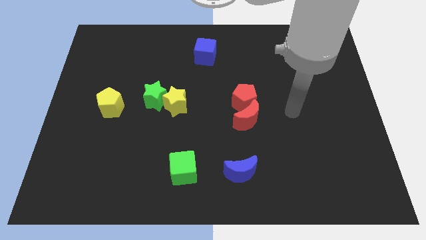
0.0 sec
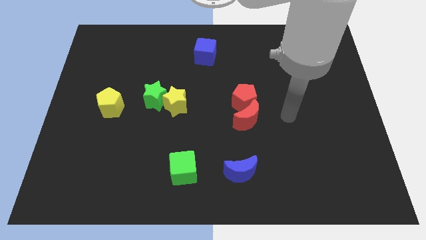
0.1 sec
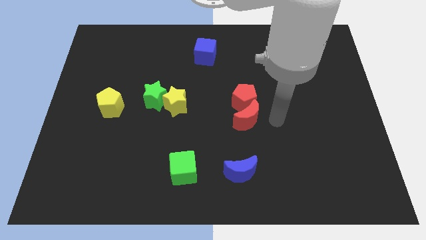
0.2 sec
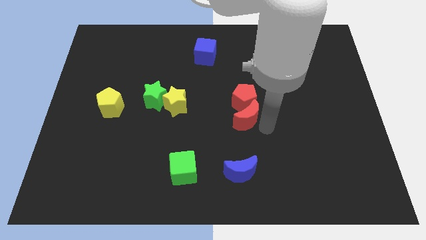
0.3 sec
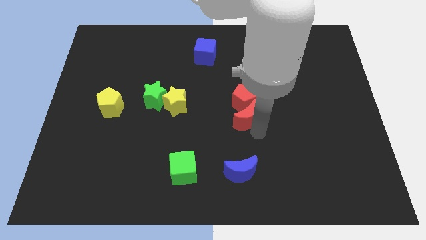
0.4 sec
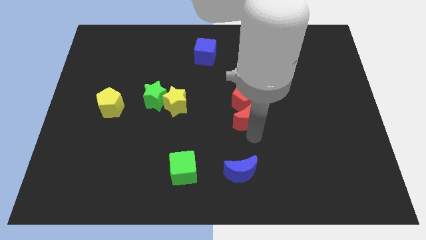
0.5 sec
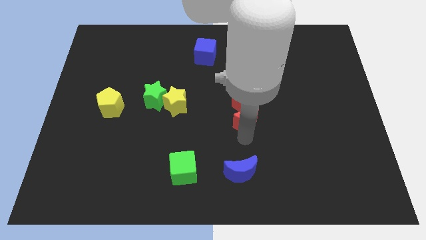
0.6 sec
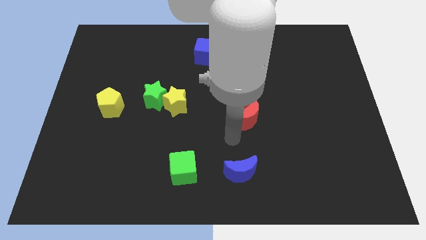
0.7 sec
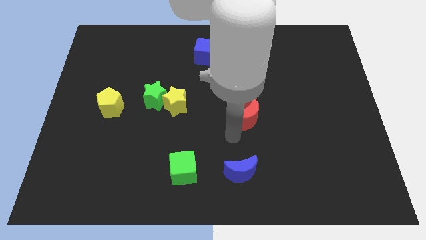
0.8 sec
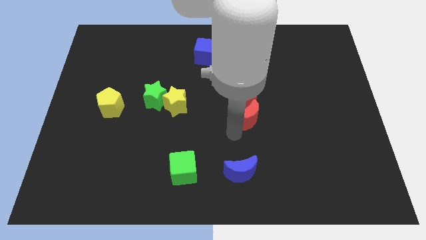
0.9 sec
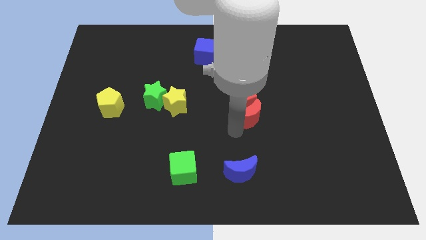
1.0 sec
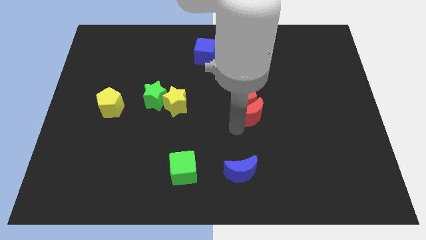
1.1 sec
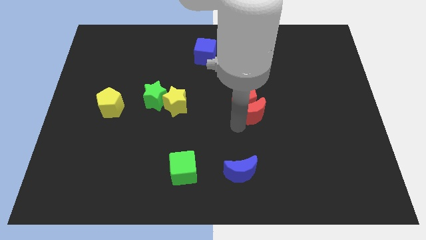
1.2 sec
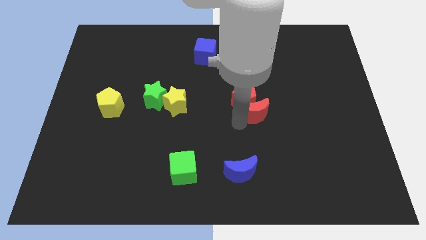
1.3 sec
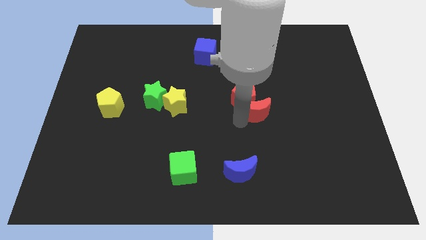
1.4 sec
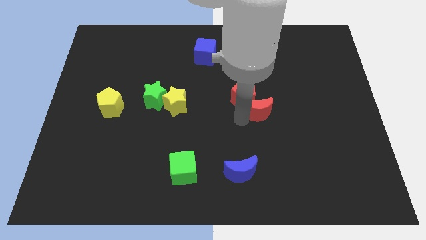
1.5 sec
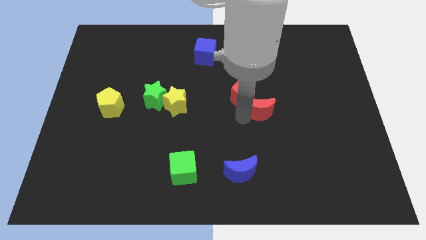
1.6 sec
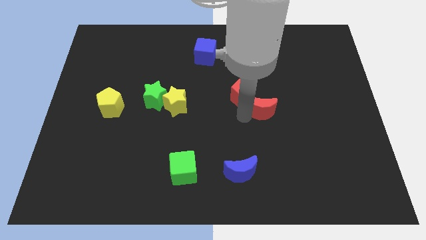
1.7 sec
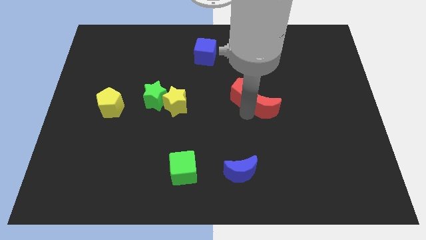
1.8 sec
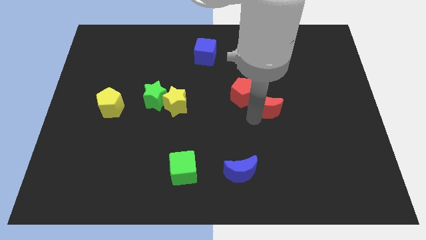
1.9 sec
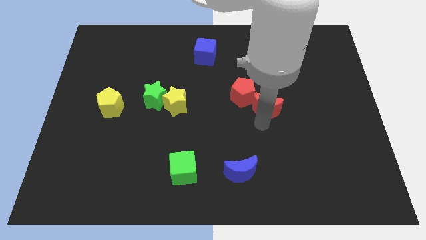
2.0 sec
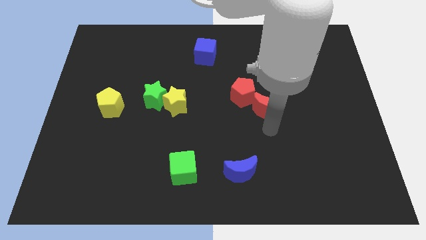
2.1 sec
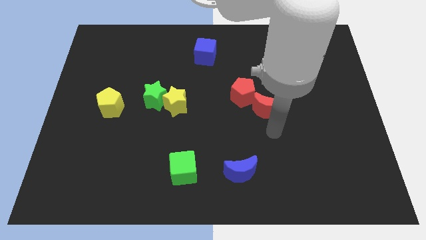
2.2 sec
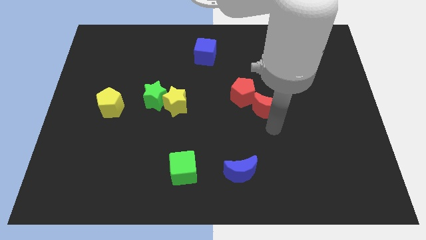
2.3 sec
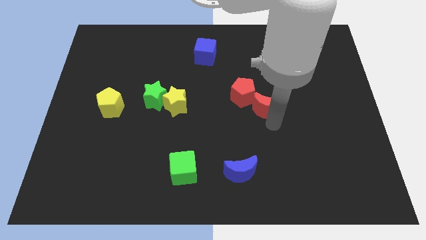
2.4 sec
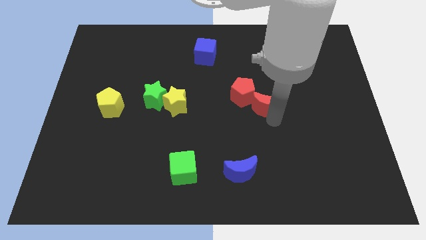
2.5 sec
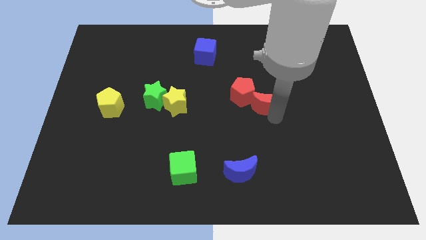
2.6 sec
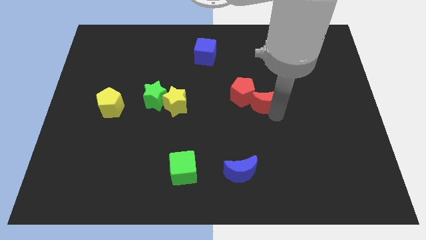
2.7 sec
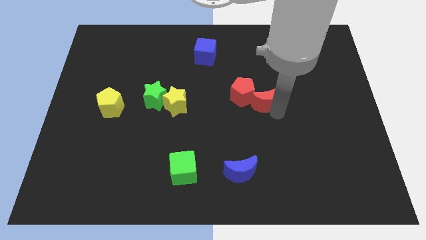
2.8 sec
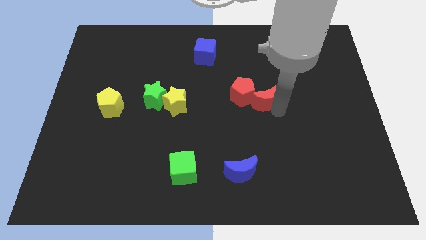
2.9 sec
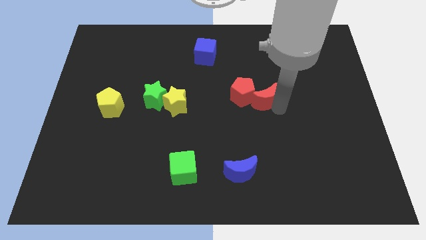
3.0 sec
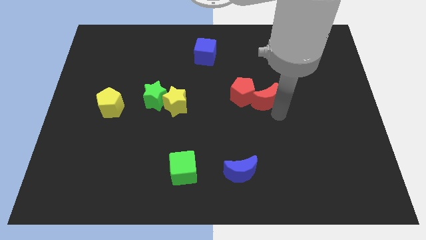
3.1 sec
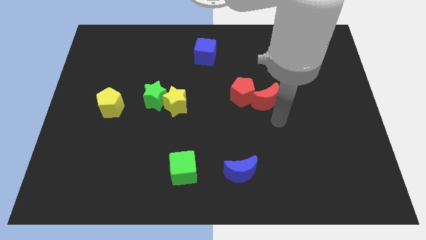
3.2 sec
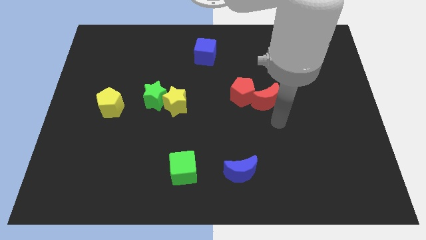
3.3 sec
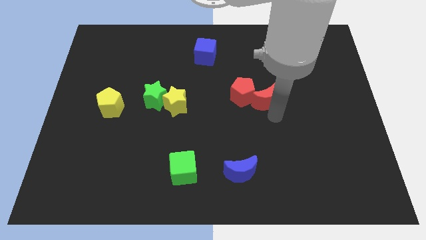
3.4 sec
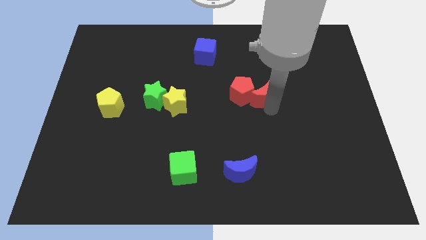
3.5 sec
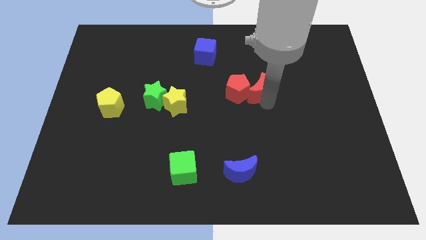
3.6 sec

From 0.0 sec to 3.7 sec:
slide the red moon a little bit up

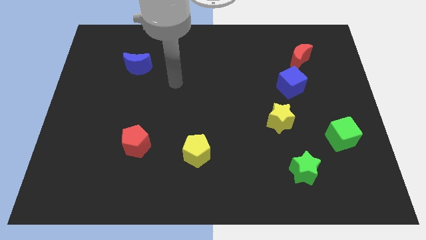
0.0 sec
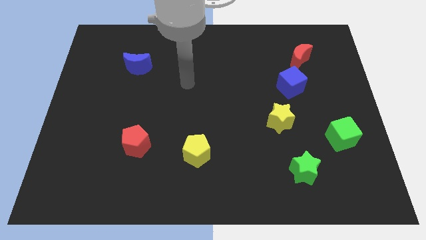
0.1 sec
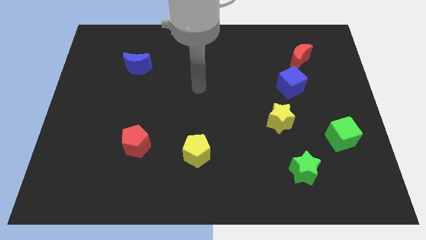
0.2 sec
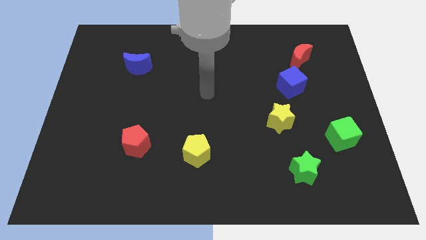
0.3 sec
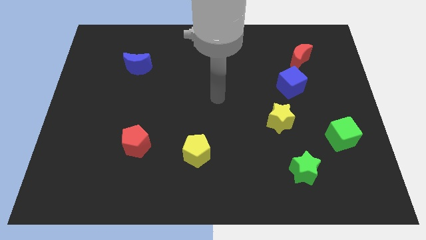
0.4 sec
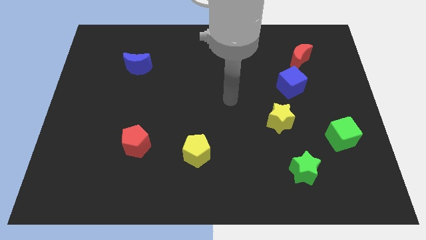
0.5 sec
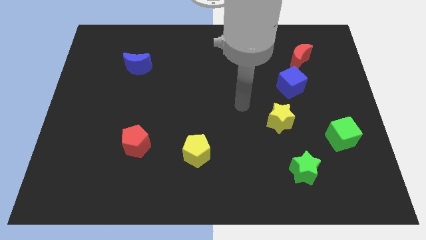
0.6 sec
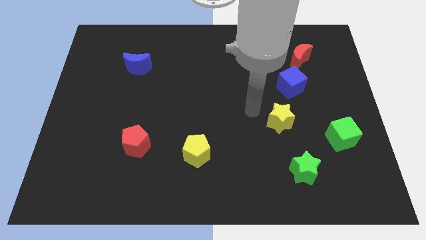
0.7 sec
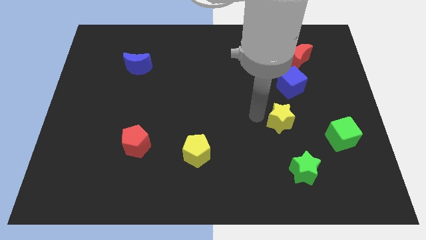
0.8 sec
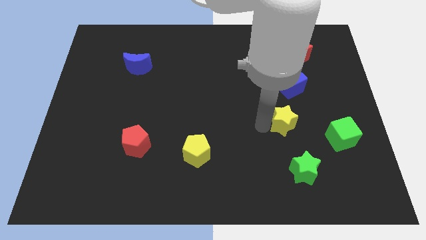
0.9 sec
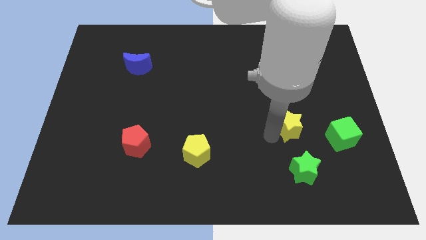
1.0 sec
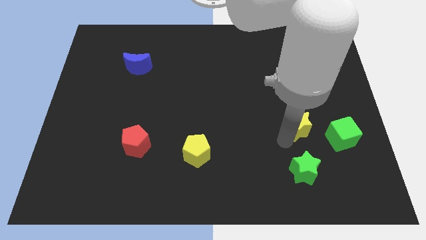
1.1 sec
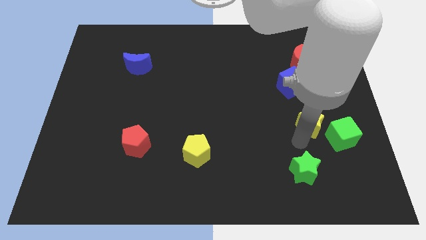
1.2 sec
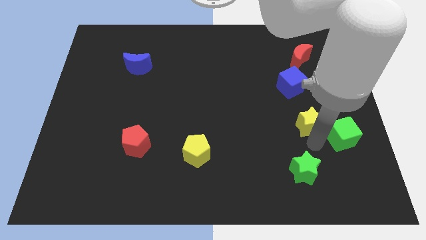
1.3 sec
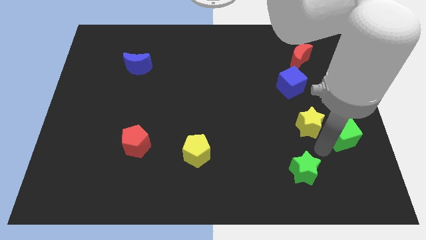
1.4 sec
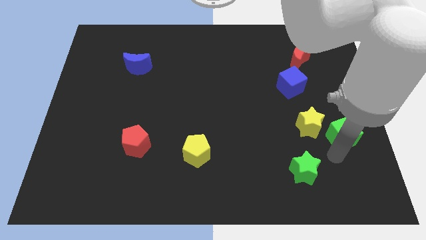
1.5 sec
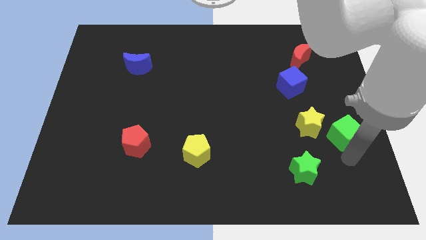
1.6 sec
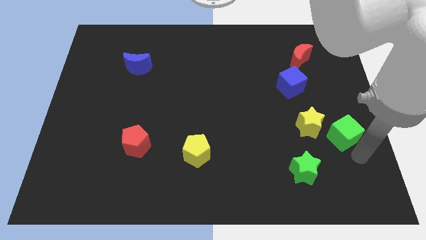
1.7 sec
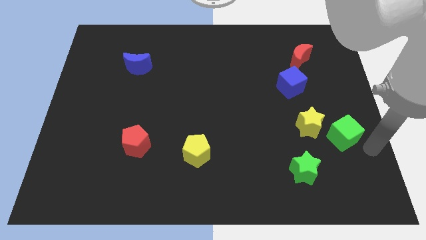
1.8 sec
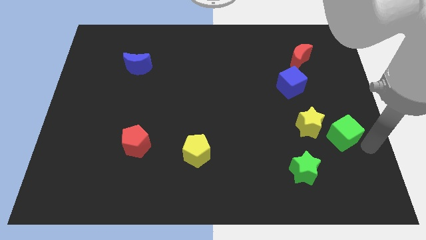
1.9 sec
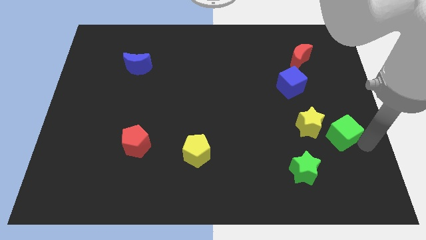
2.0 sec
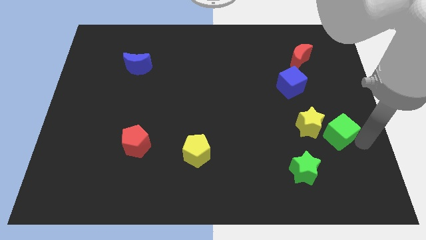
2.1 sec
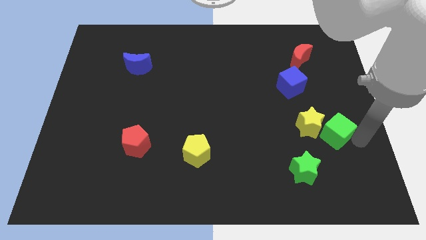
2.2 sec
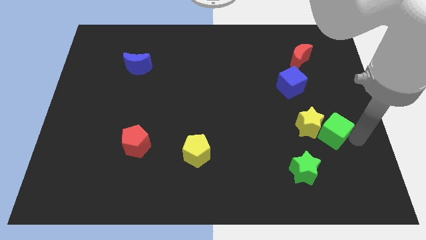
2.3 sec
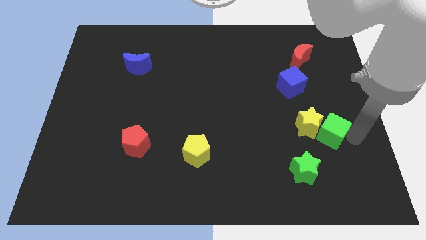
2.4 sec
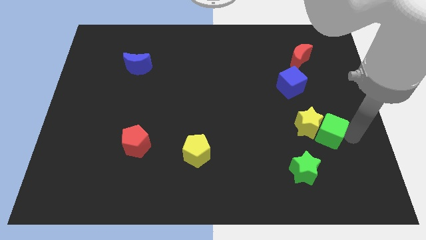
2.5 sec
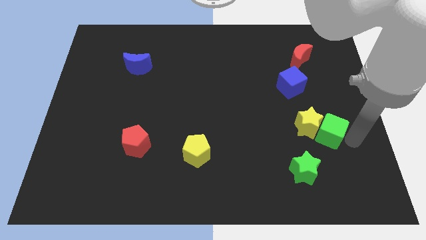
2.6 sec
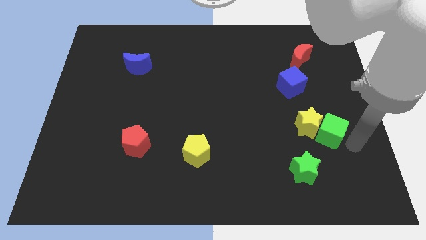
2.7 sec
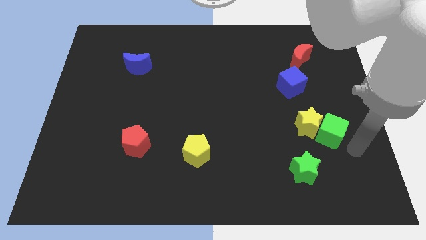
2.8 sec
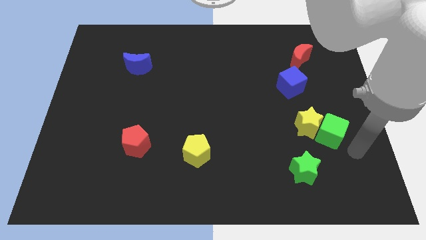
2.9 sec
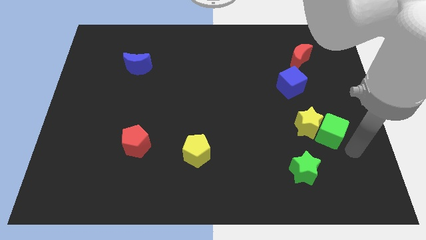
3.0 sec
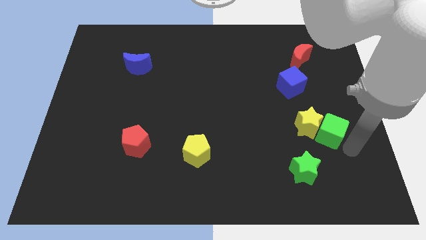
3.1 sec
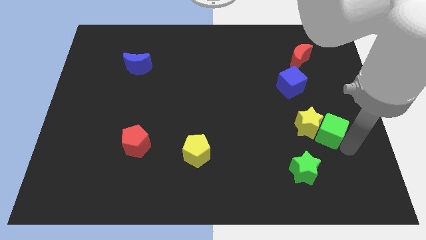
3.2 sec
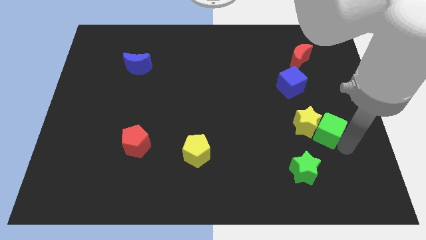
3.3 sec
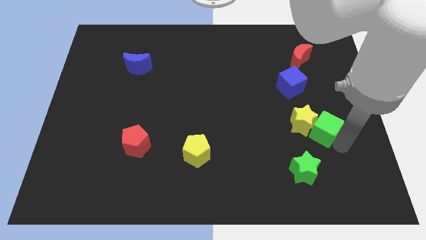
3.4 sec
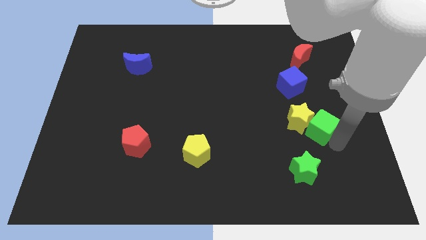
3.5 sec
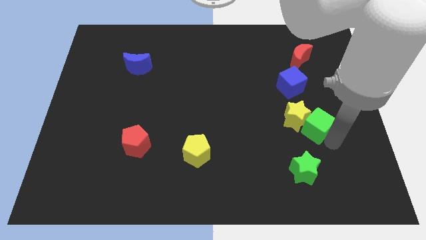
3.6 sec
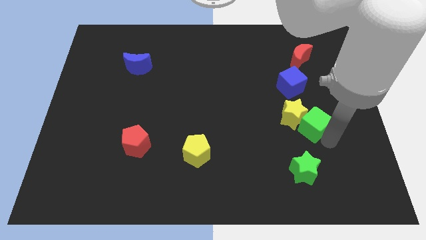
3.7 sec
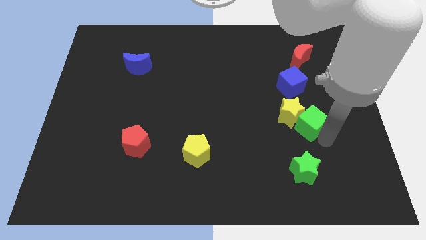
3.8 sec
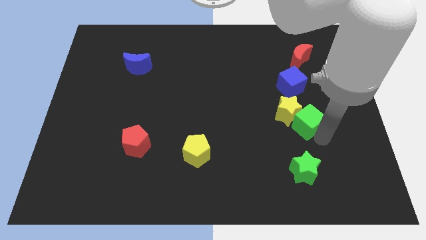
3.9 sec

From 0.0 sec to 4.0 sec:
push the green cube diagonally up and left a bit

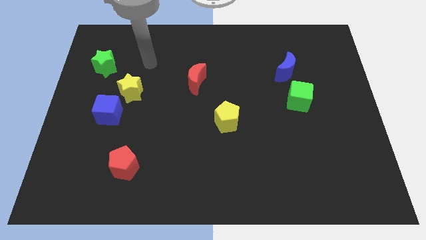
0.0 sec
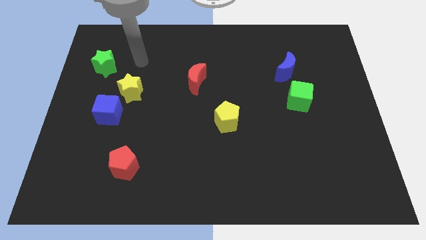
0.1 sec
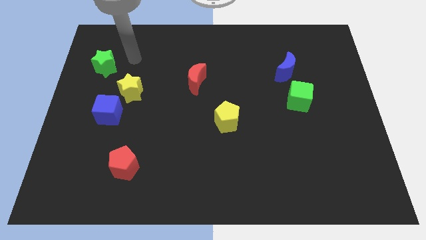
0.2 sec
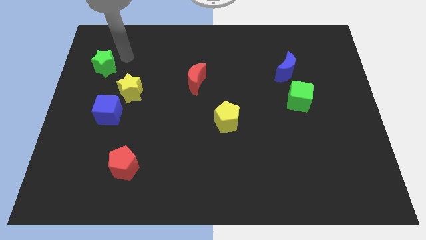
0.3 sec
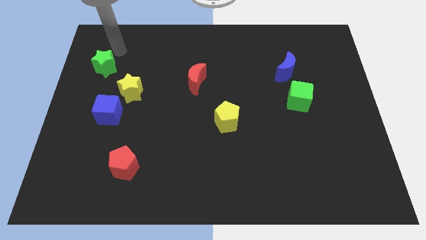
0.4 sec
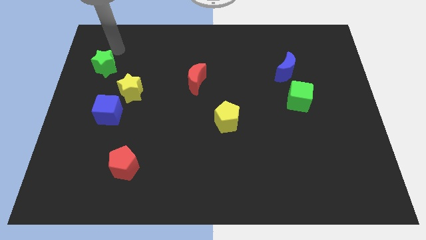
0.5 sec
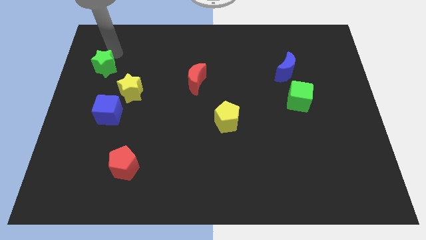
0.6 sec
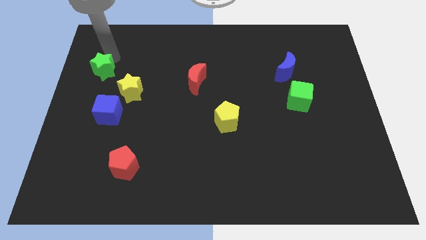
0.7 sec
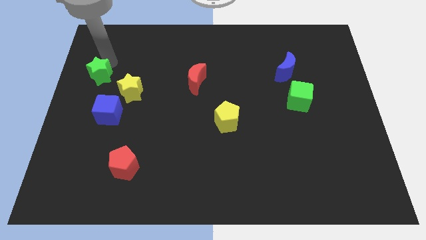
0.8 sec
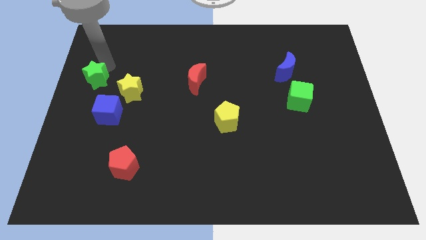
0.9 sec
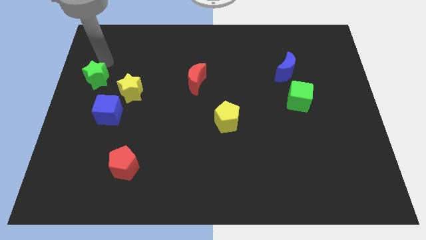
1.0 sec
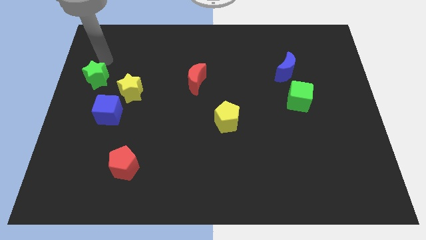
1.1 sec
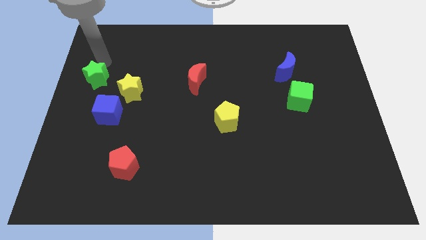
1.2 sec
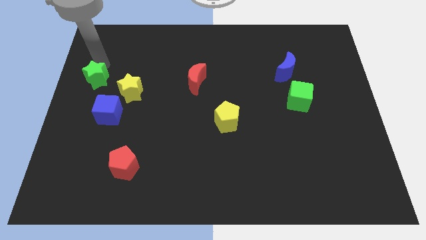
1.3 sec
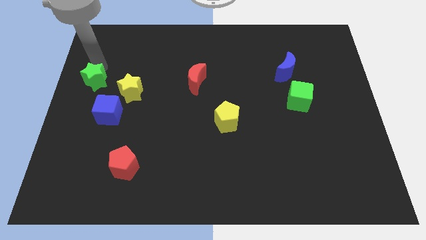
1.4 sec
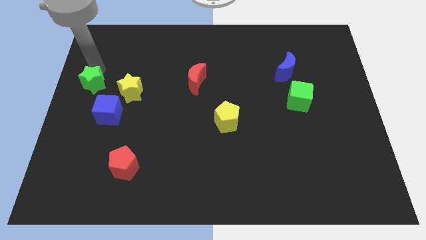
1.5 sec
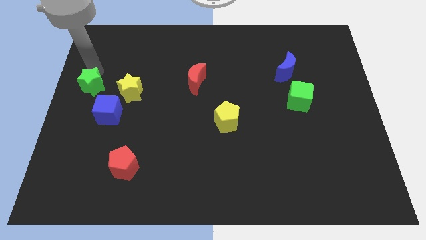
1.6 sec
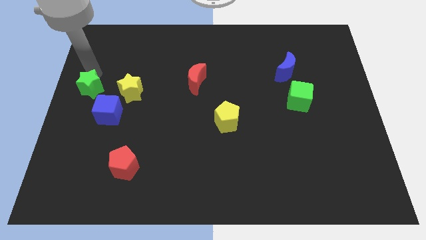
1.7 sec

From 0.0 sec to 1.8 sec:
slide the green star somewhat down
